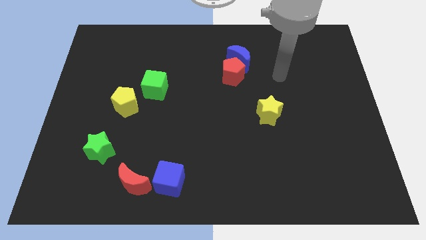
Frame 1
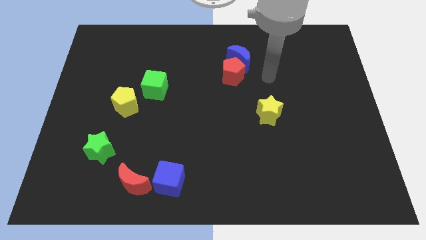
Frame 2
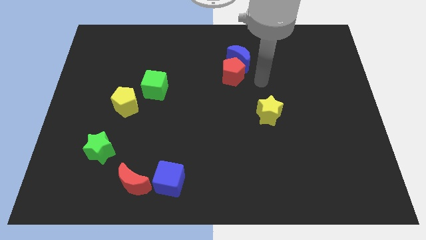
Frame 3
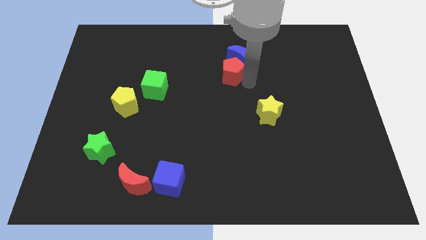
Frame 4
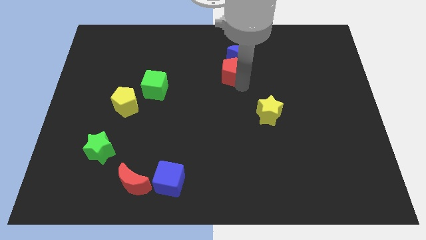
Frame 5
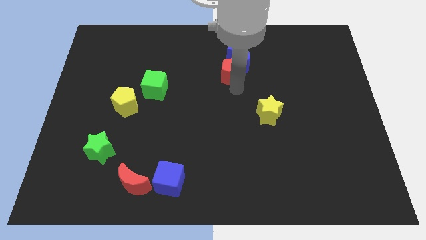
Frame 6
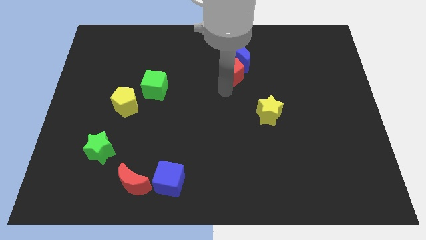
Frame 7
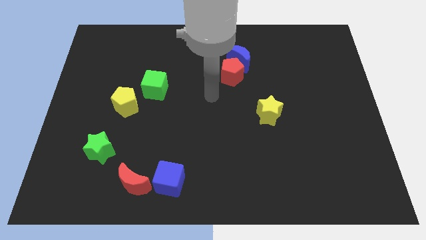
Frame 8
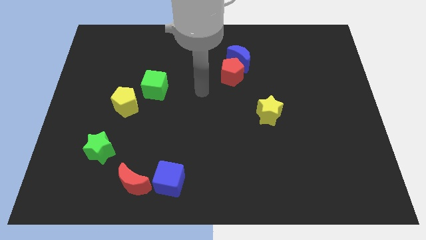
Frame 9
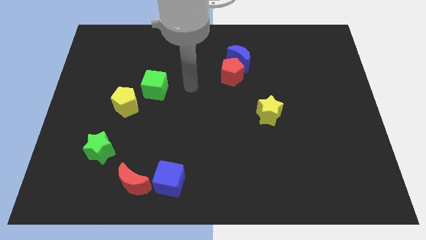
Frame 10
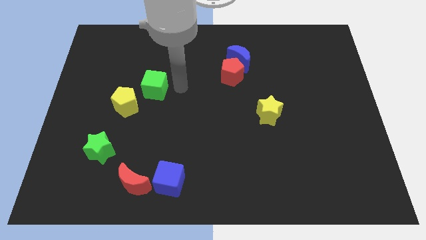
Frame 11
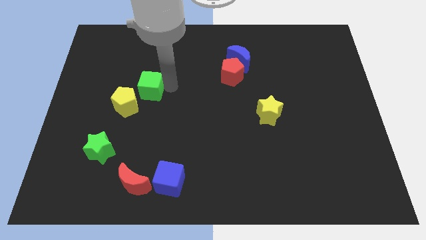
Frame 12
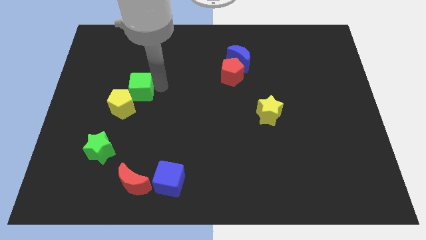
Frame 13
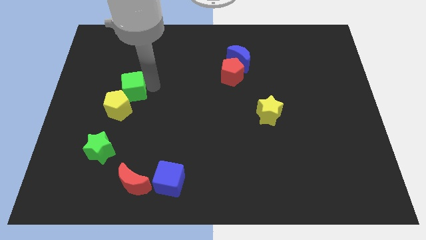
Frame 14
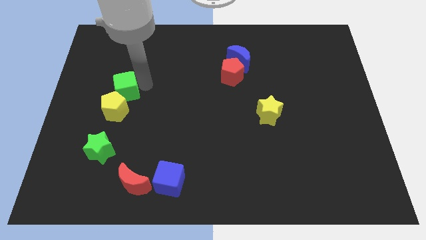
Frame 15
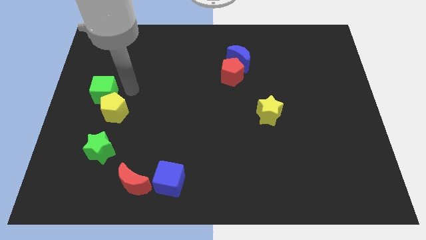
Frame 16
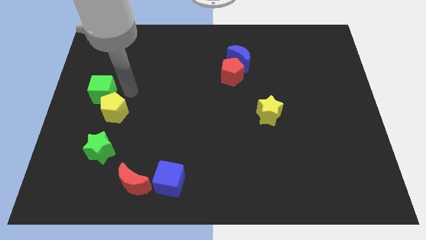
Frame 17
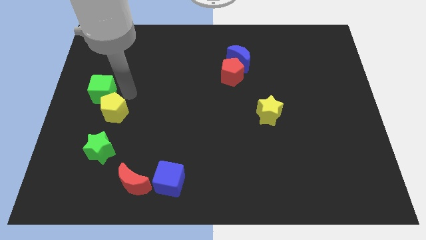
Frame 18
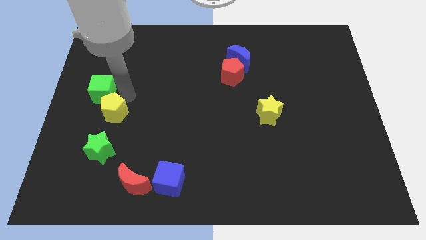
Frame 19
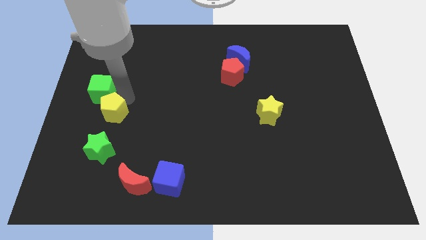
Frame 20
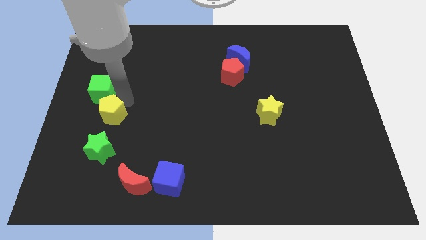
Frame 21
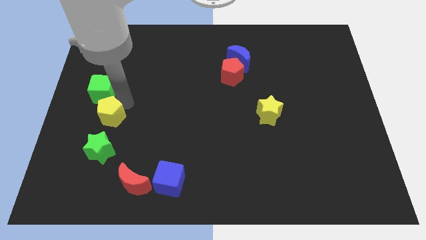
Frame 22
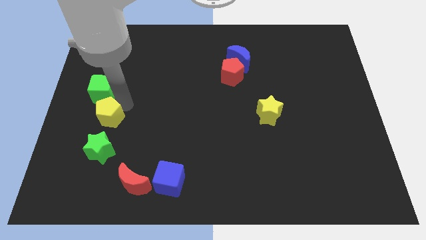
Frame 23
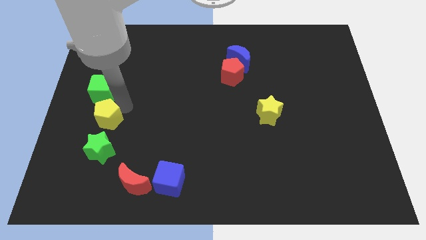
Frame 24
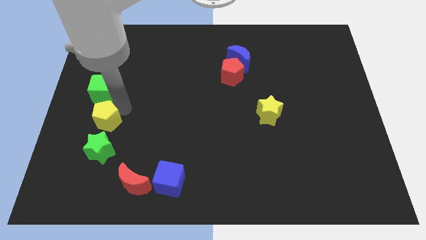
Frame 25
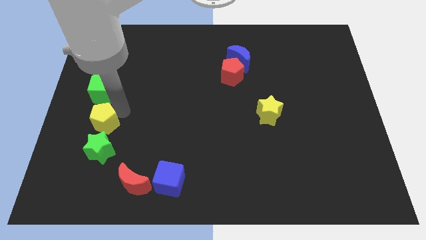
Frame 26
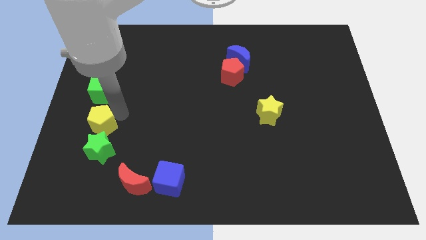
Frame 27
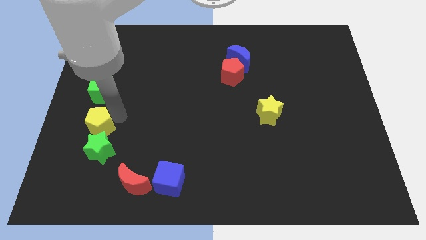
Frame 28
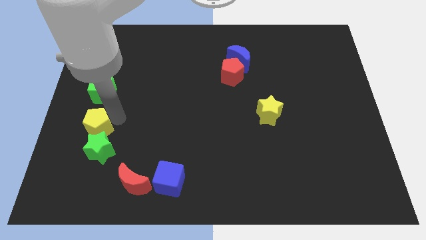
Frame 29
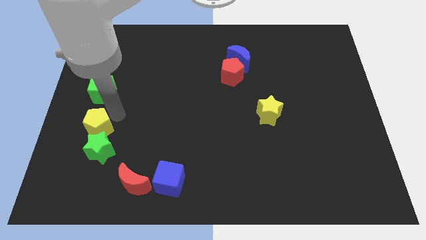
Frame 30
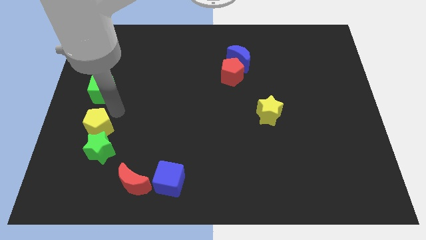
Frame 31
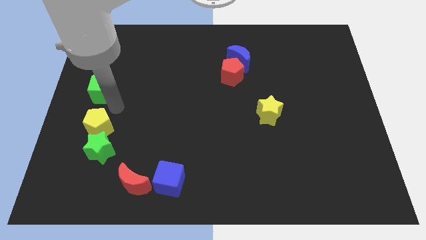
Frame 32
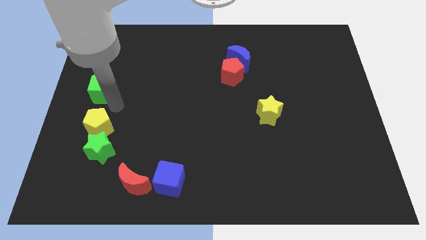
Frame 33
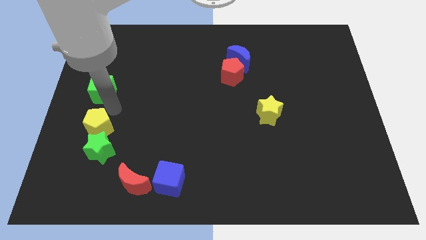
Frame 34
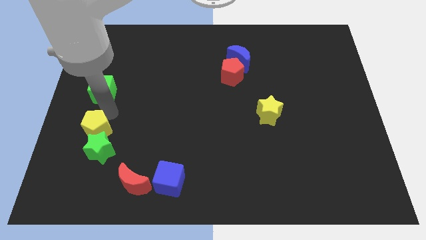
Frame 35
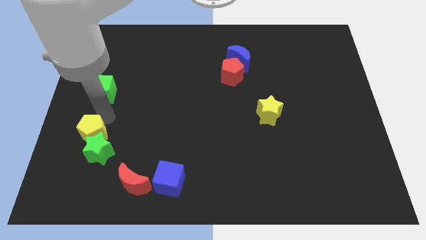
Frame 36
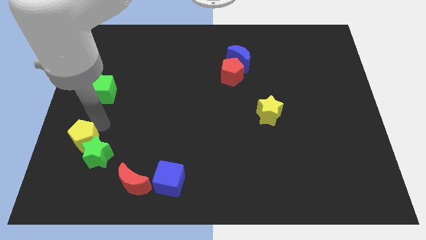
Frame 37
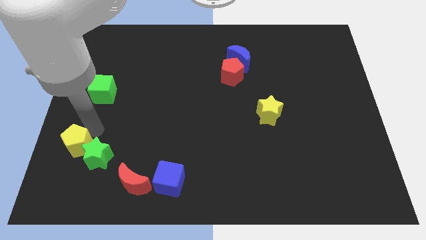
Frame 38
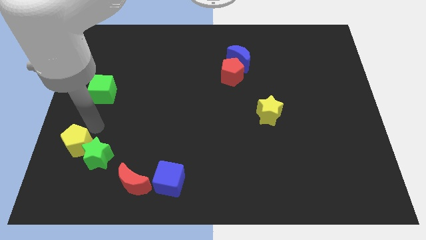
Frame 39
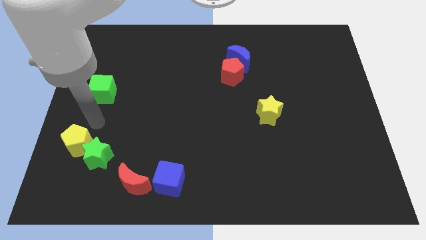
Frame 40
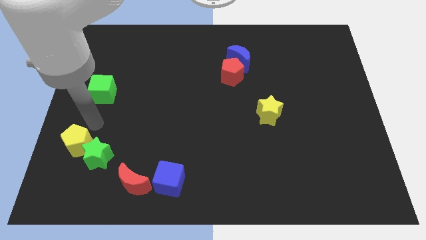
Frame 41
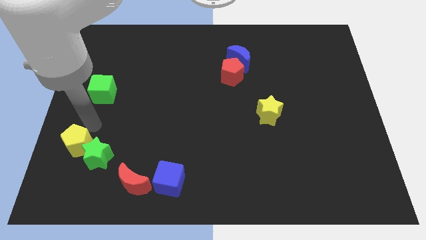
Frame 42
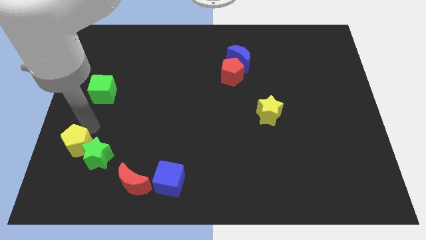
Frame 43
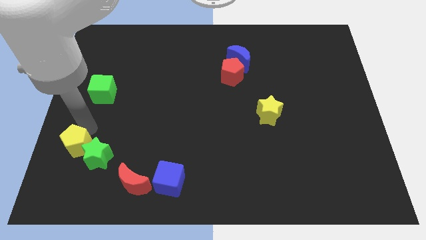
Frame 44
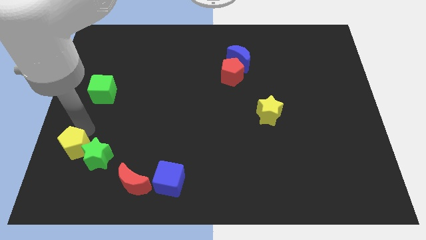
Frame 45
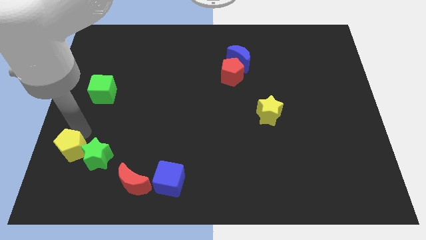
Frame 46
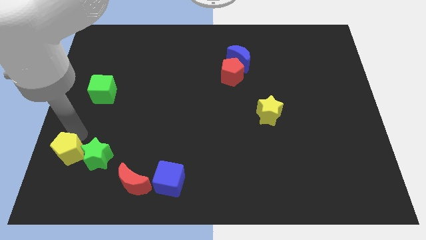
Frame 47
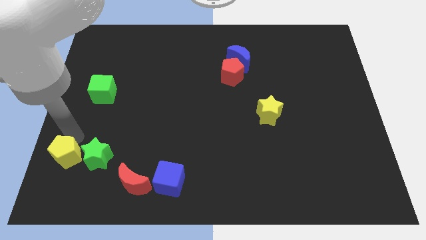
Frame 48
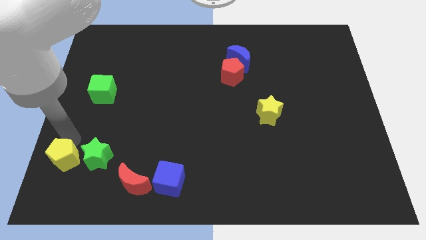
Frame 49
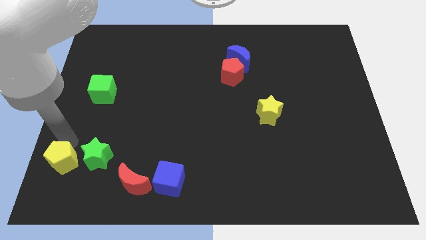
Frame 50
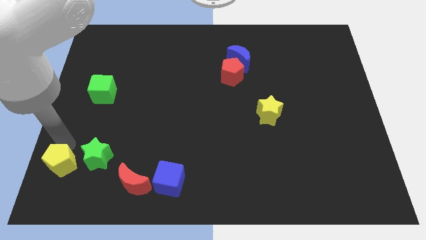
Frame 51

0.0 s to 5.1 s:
move the yellow pentagon to the lower left corner

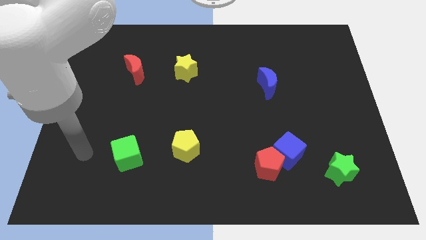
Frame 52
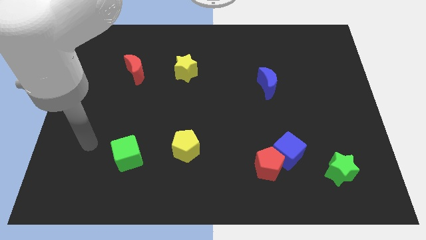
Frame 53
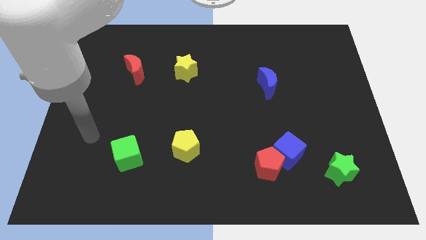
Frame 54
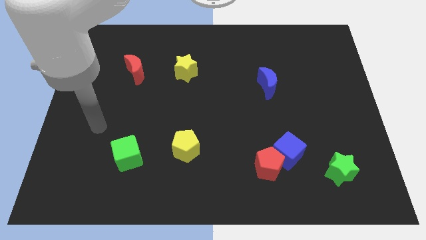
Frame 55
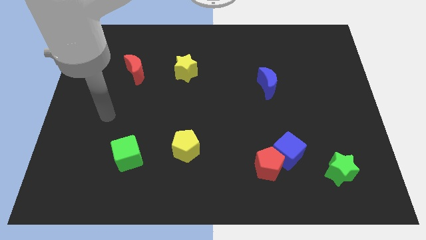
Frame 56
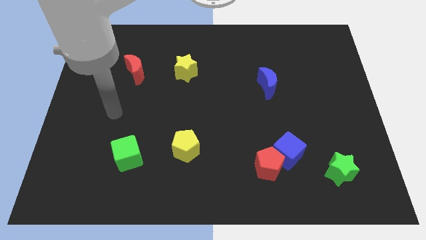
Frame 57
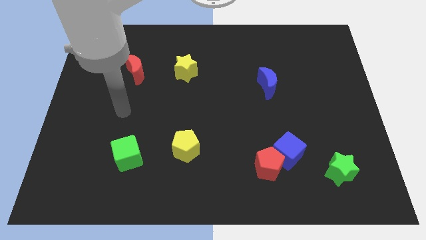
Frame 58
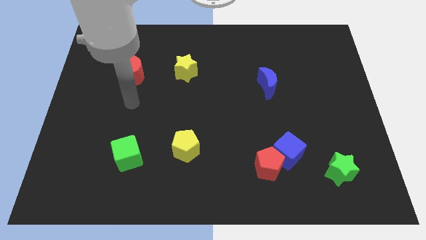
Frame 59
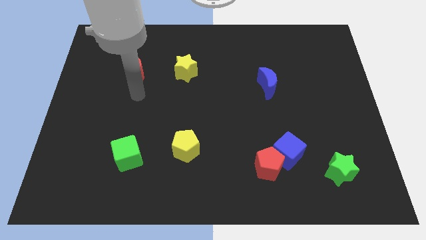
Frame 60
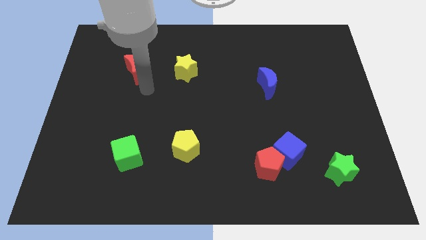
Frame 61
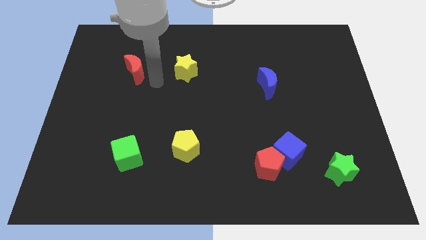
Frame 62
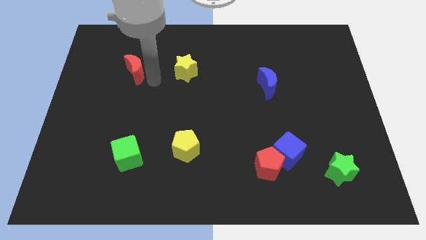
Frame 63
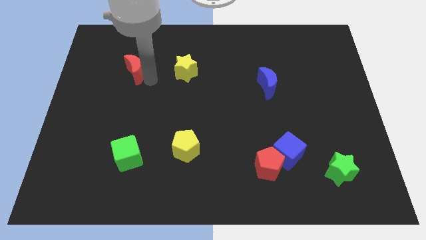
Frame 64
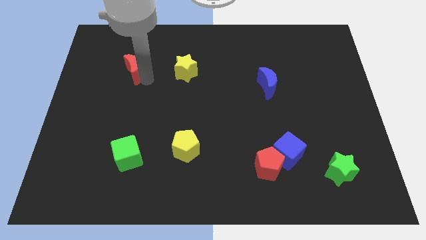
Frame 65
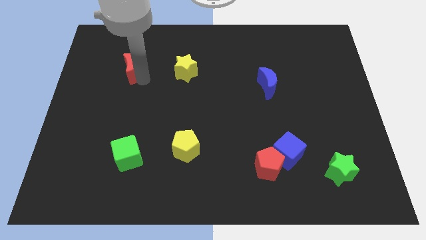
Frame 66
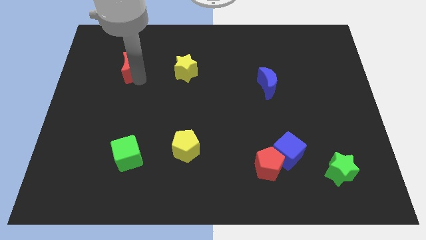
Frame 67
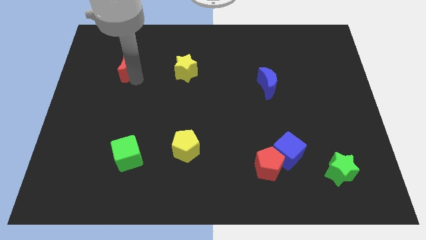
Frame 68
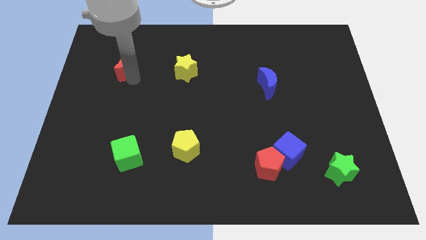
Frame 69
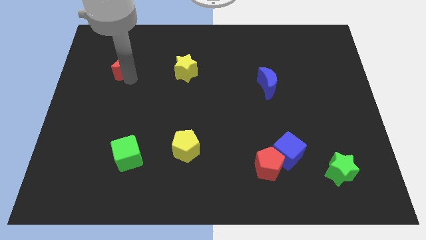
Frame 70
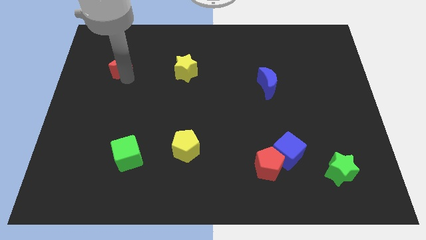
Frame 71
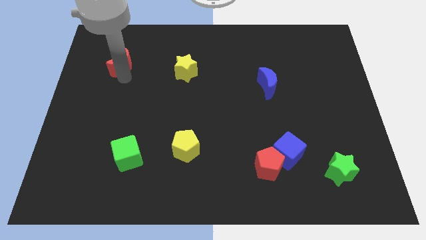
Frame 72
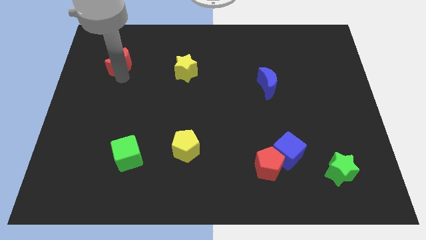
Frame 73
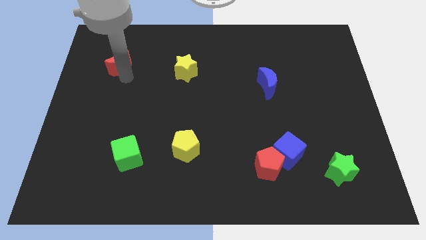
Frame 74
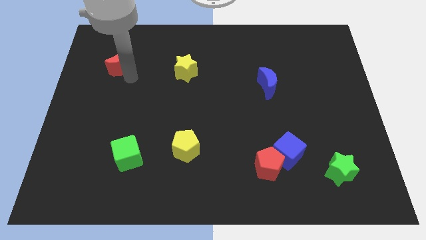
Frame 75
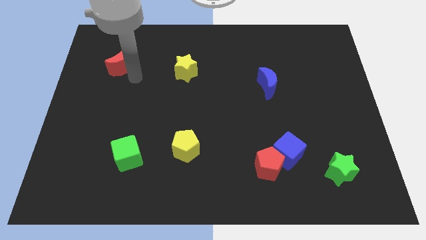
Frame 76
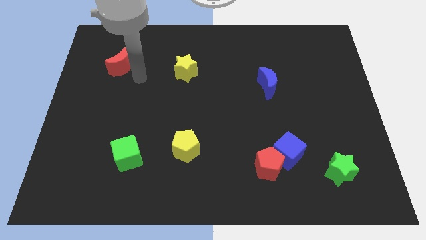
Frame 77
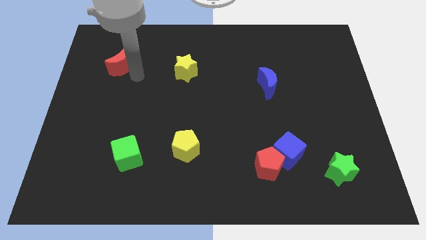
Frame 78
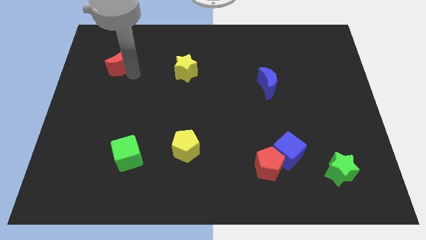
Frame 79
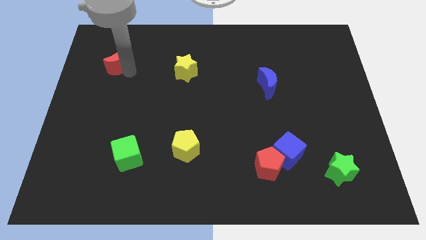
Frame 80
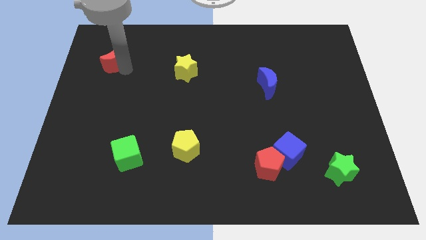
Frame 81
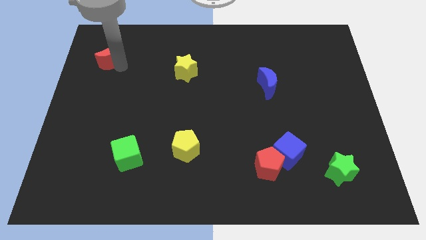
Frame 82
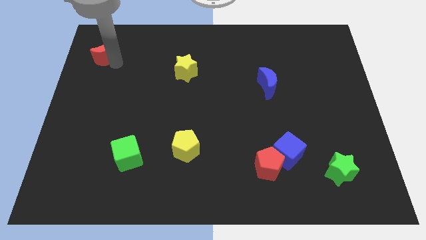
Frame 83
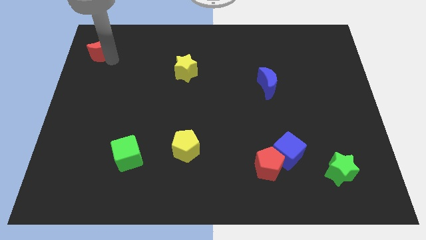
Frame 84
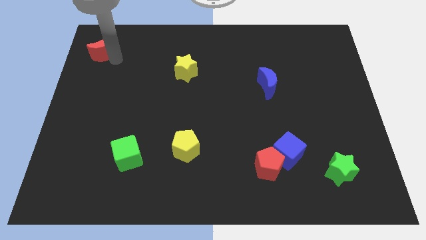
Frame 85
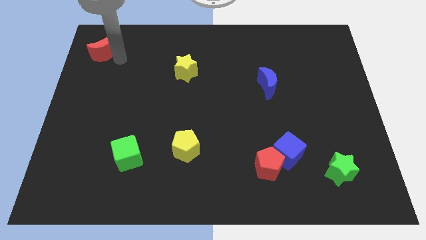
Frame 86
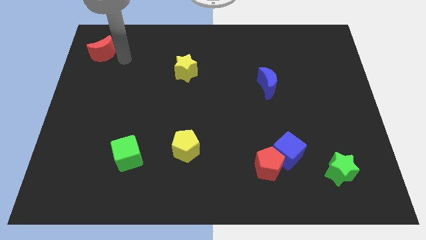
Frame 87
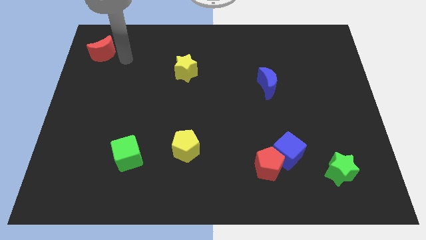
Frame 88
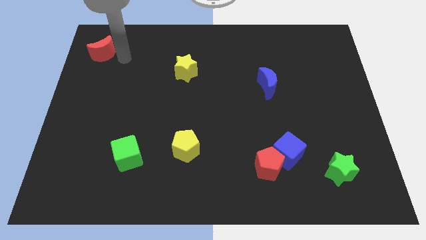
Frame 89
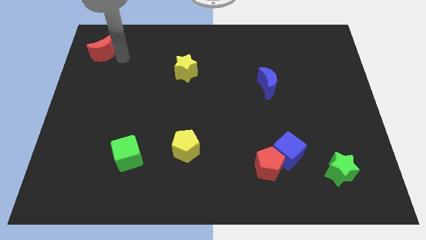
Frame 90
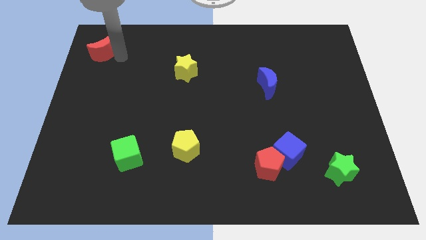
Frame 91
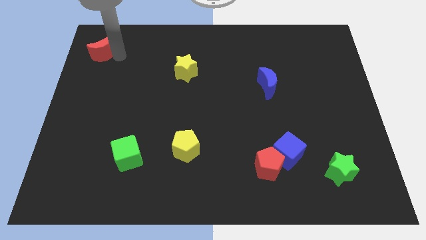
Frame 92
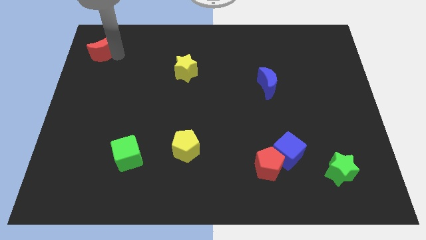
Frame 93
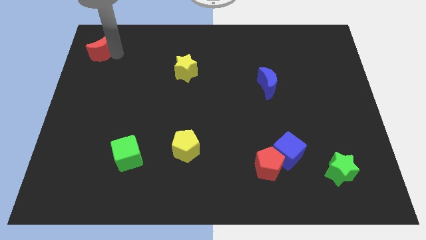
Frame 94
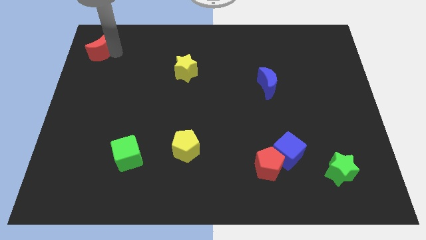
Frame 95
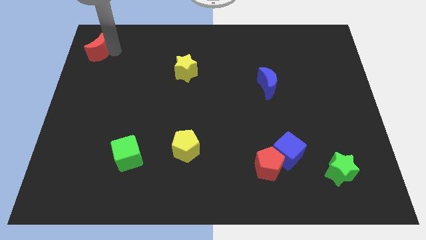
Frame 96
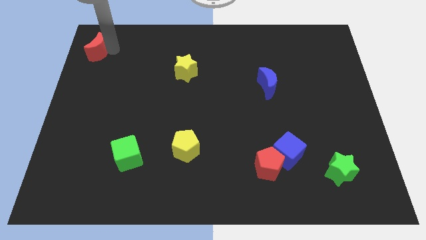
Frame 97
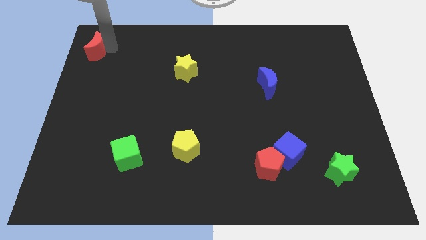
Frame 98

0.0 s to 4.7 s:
push the red moon to the top left
